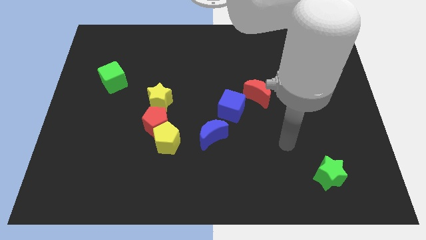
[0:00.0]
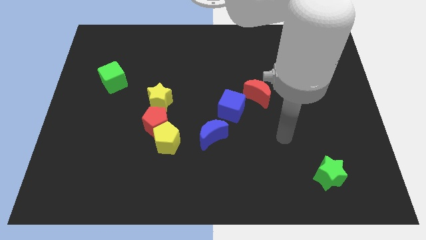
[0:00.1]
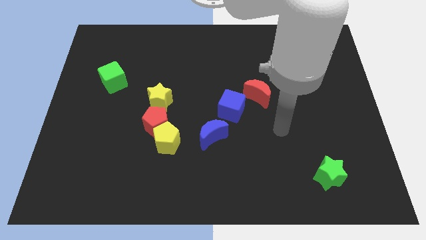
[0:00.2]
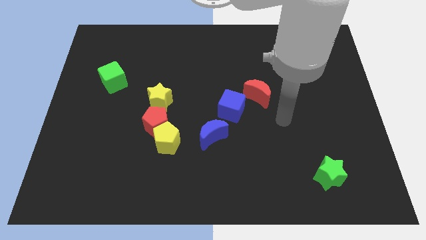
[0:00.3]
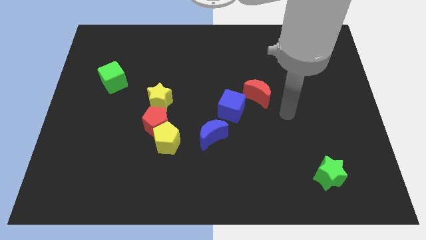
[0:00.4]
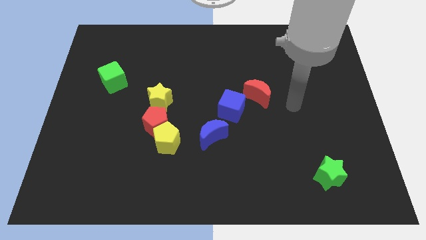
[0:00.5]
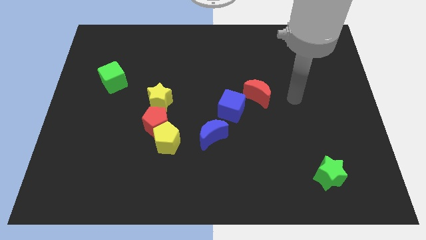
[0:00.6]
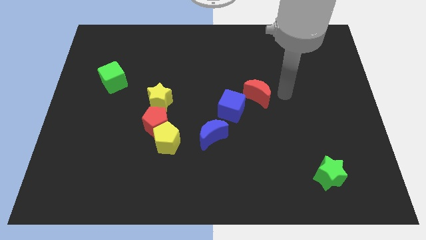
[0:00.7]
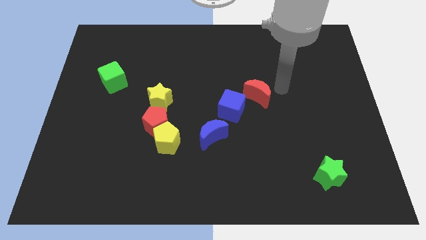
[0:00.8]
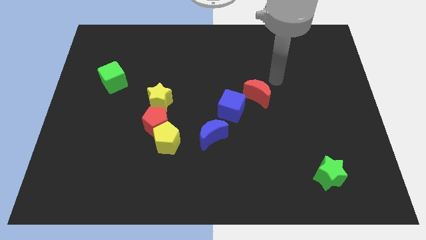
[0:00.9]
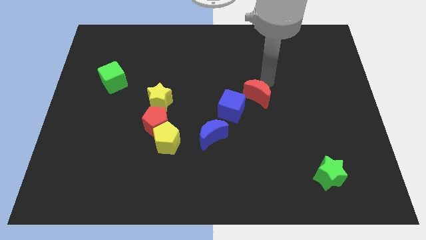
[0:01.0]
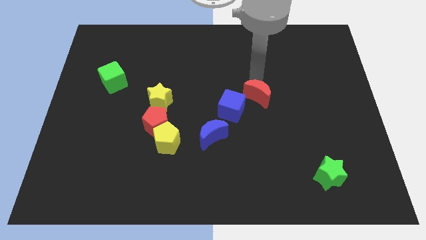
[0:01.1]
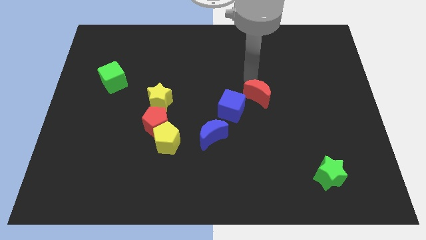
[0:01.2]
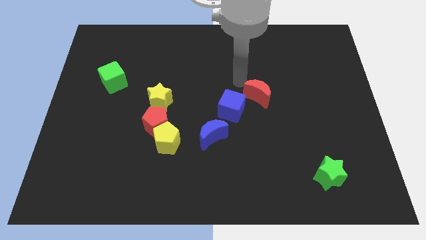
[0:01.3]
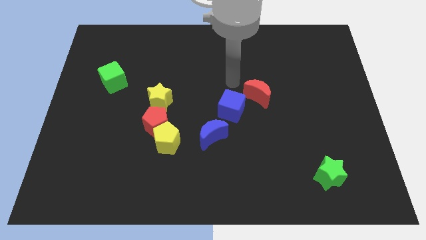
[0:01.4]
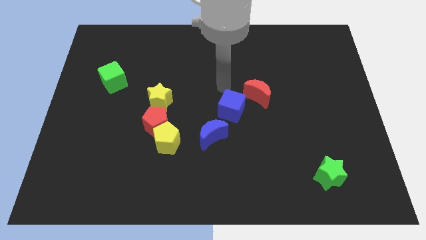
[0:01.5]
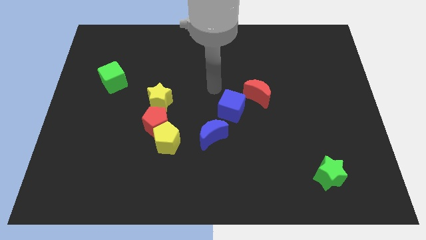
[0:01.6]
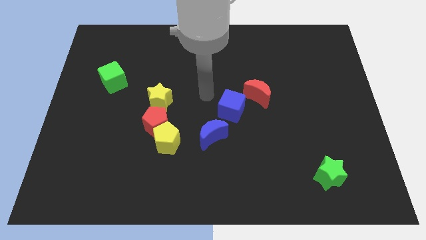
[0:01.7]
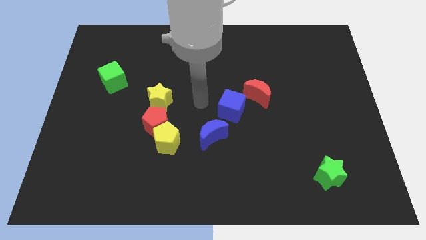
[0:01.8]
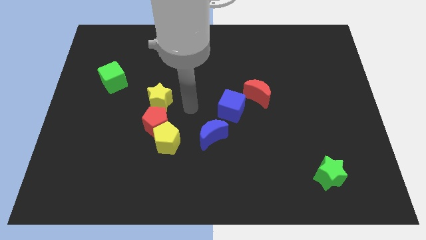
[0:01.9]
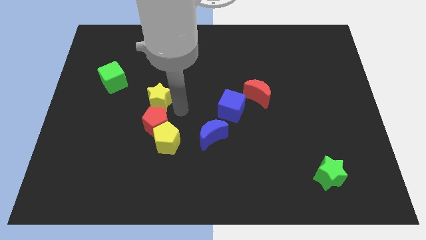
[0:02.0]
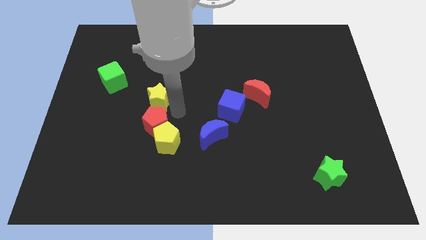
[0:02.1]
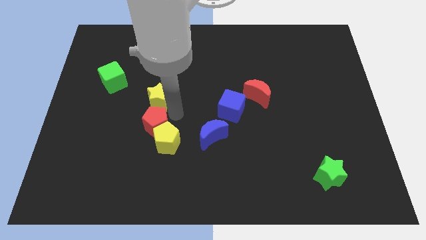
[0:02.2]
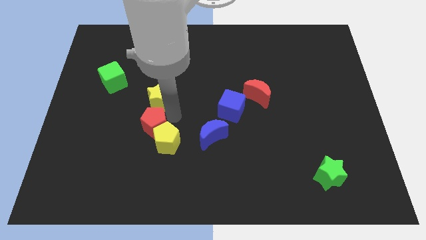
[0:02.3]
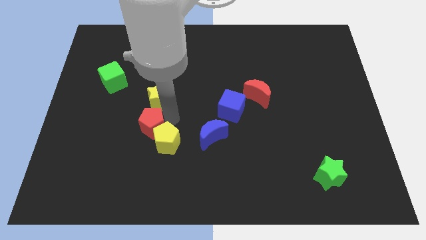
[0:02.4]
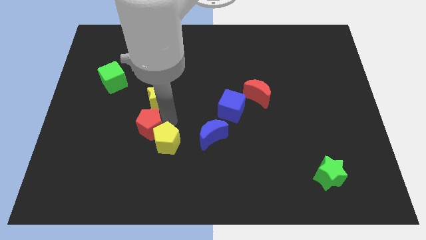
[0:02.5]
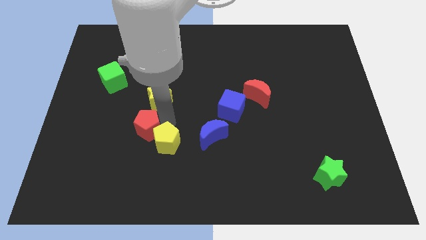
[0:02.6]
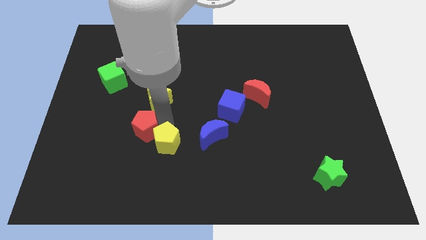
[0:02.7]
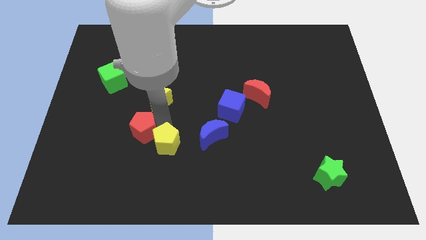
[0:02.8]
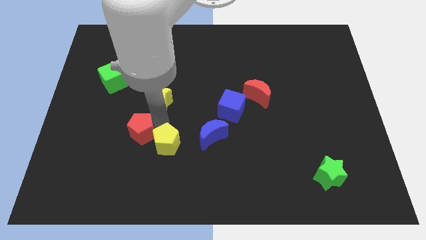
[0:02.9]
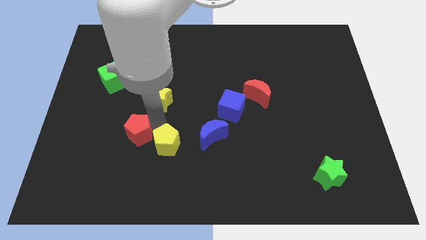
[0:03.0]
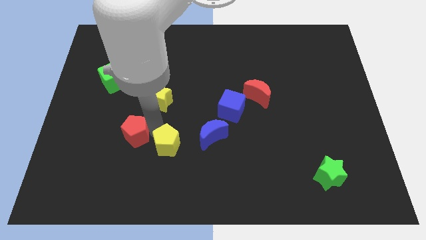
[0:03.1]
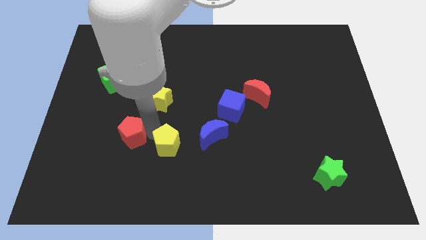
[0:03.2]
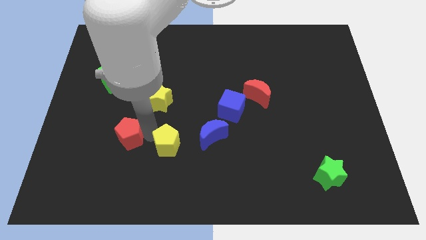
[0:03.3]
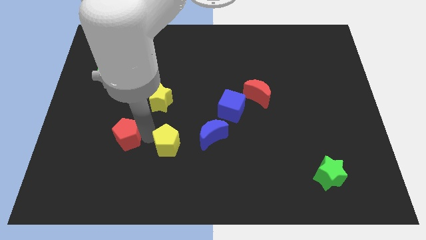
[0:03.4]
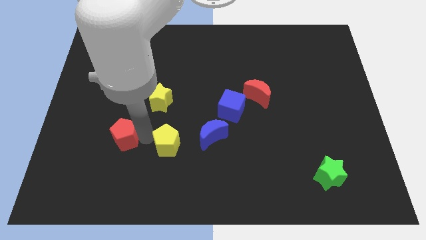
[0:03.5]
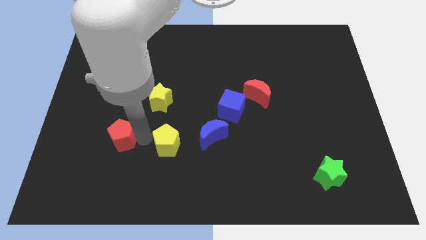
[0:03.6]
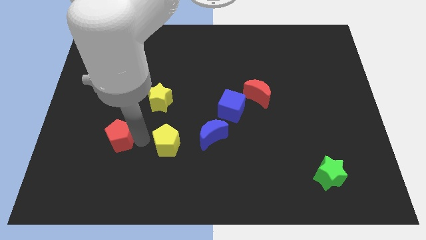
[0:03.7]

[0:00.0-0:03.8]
pull the red pentagon apart from the yellow pentagon and yellow star

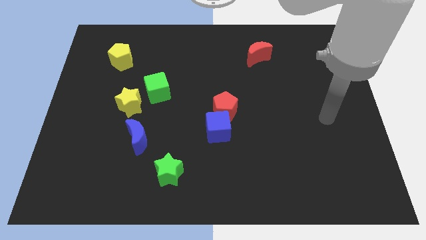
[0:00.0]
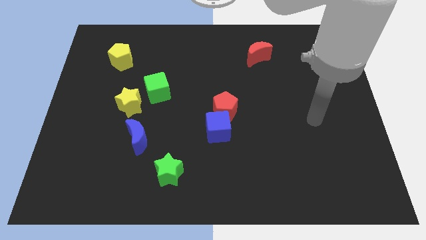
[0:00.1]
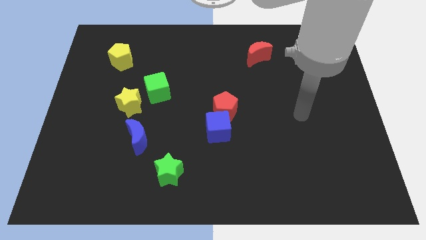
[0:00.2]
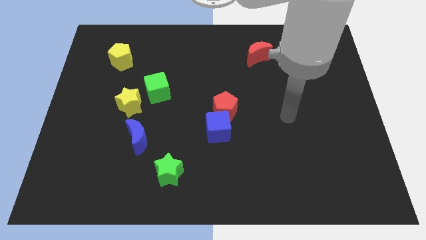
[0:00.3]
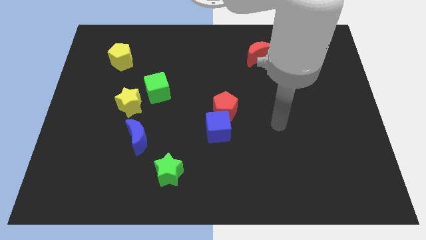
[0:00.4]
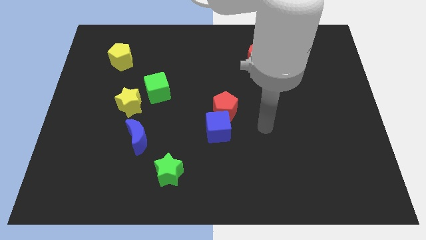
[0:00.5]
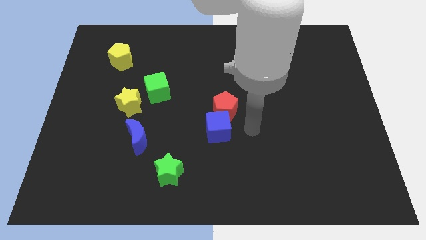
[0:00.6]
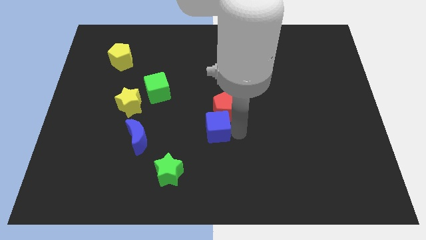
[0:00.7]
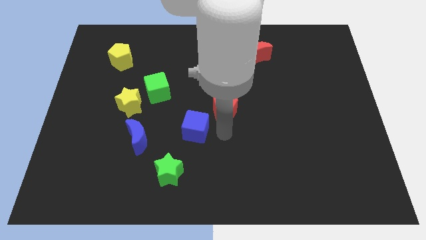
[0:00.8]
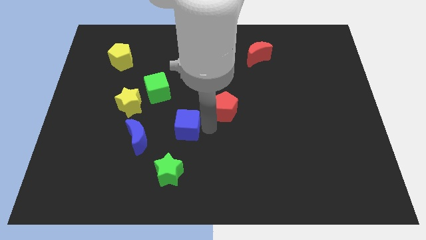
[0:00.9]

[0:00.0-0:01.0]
separate the red pentagon from the blue cube

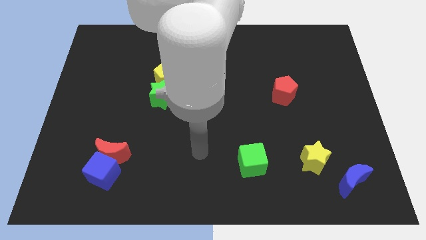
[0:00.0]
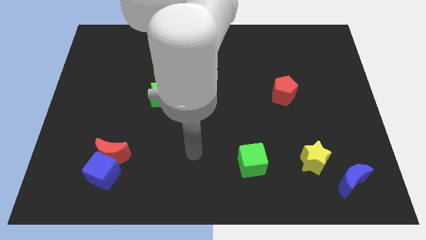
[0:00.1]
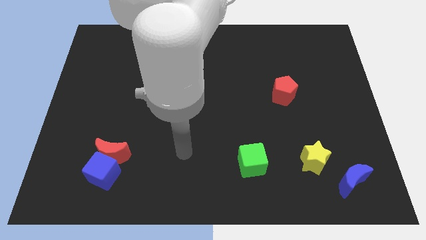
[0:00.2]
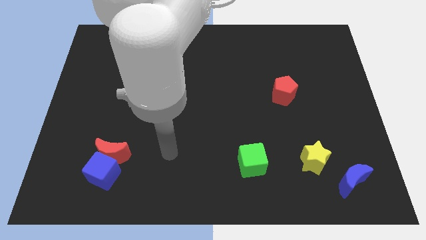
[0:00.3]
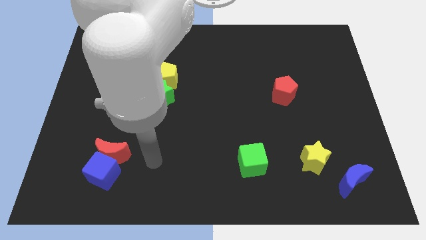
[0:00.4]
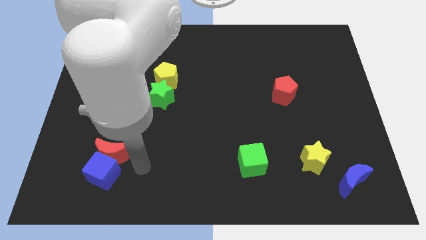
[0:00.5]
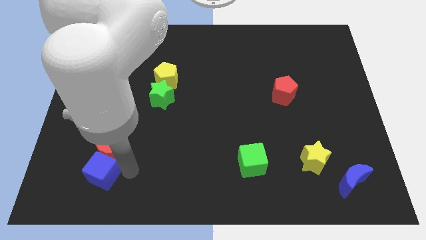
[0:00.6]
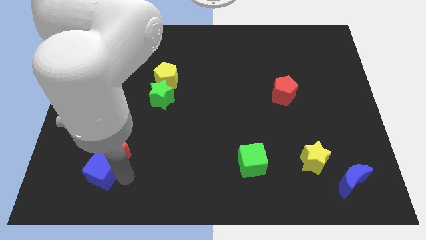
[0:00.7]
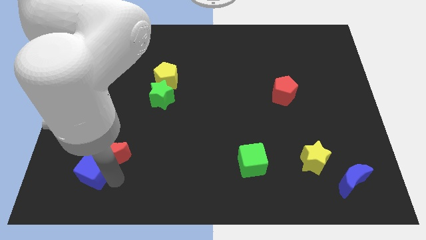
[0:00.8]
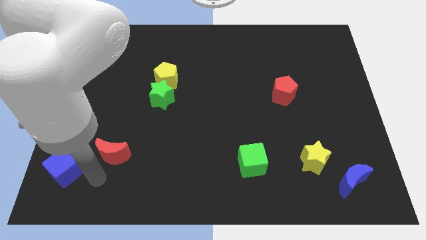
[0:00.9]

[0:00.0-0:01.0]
move the red moon away from the blue cube

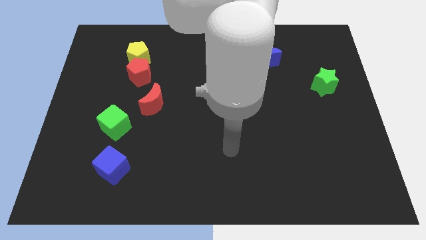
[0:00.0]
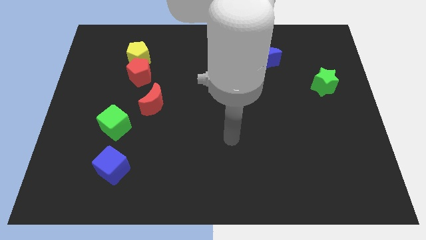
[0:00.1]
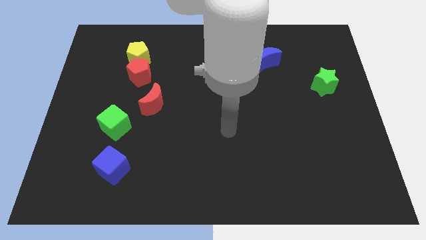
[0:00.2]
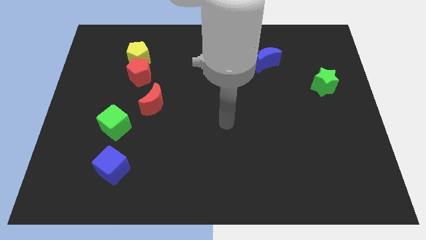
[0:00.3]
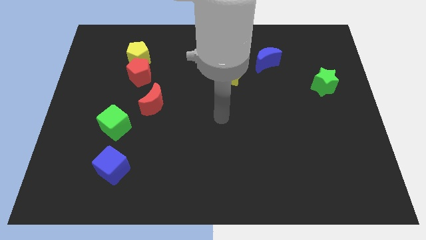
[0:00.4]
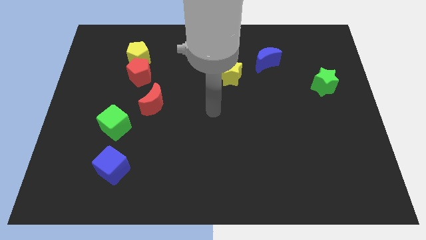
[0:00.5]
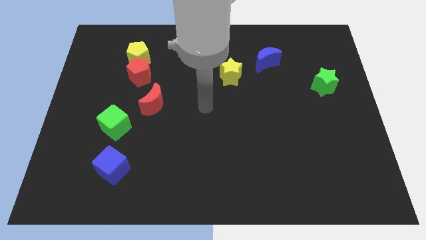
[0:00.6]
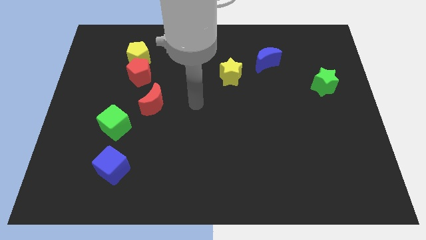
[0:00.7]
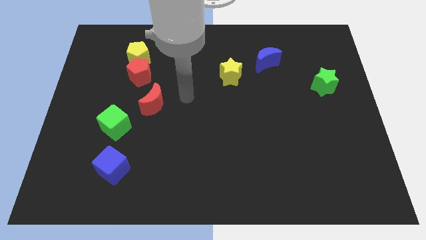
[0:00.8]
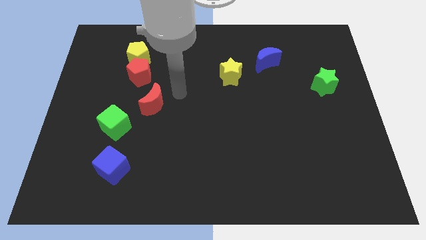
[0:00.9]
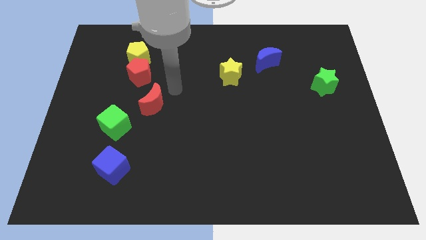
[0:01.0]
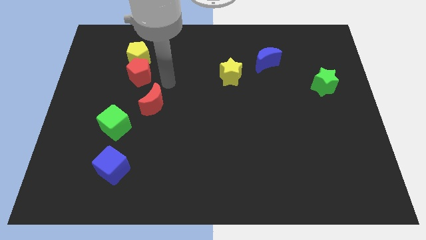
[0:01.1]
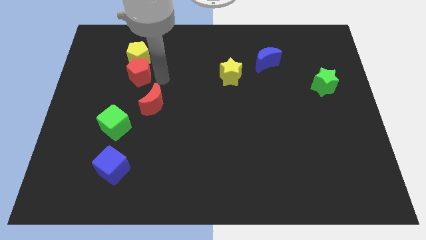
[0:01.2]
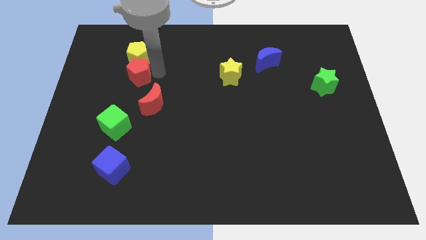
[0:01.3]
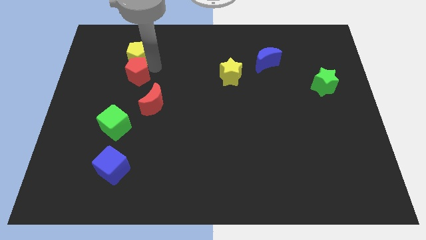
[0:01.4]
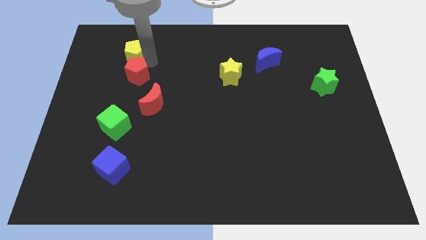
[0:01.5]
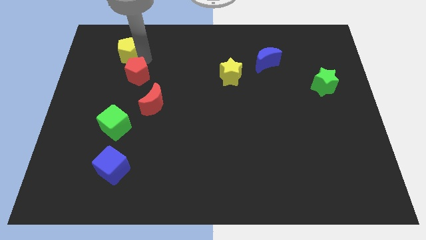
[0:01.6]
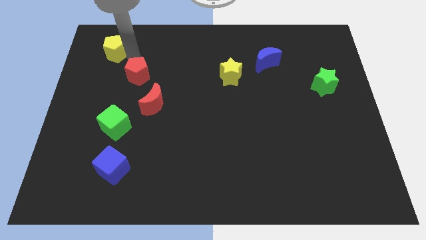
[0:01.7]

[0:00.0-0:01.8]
pull the red pentagon apart from the yellow pentagon

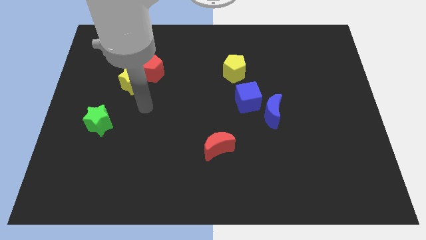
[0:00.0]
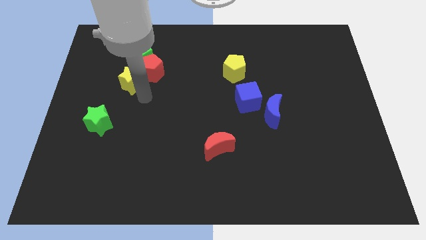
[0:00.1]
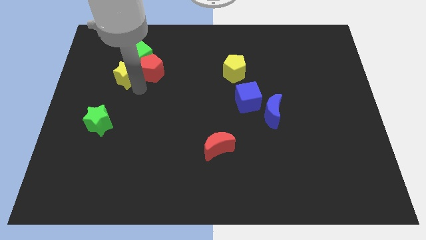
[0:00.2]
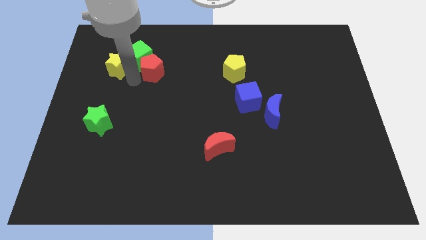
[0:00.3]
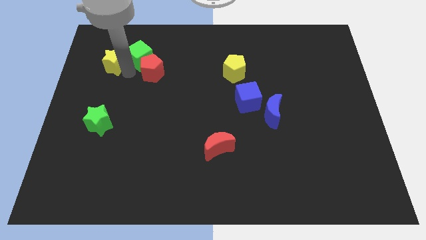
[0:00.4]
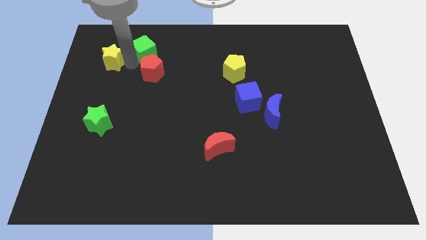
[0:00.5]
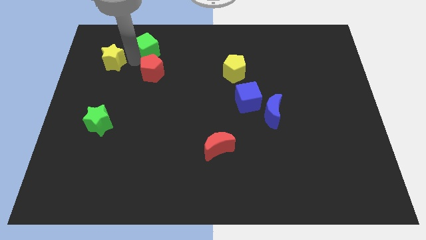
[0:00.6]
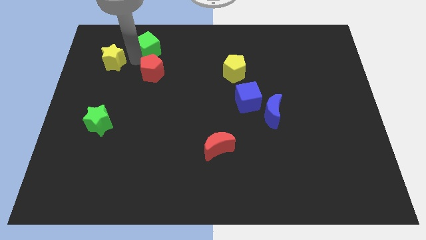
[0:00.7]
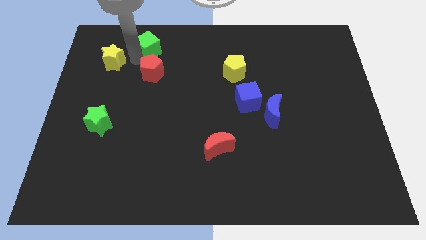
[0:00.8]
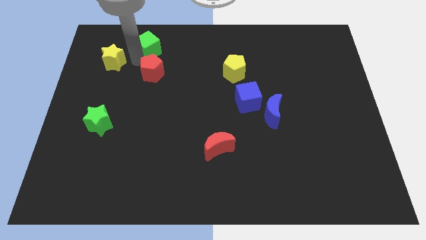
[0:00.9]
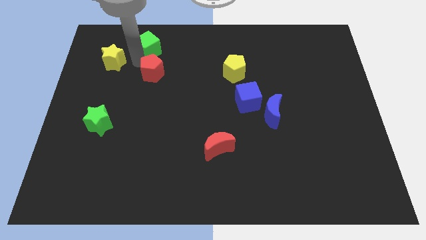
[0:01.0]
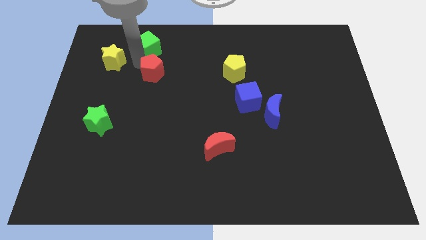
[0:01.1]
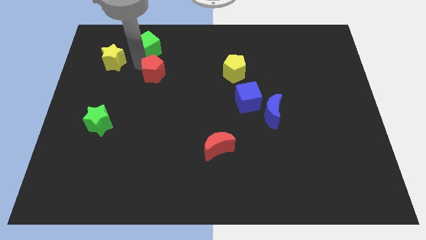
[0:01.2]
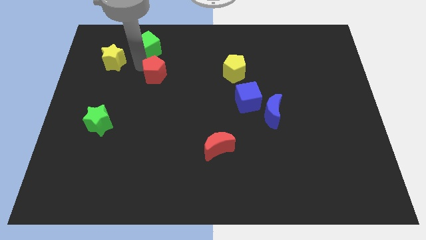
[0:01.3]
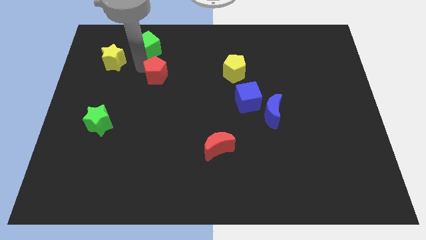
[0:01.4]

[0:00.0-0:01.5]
pull the red pentagon apart from the green cube and yellow star

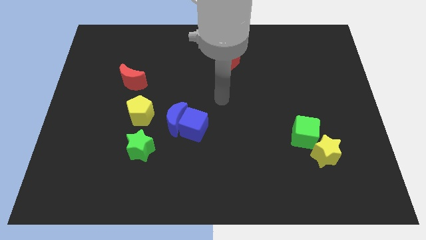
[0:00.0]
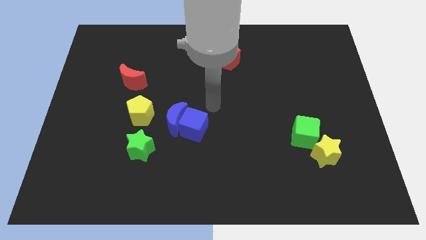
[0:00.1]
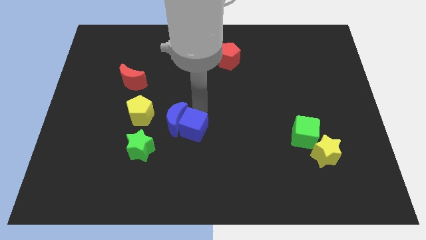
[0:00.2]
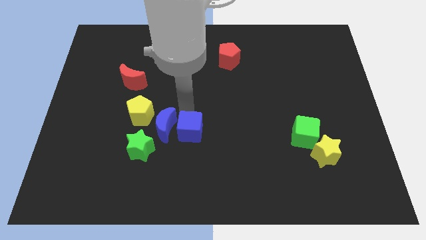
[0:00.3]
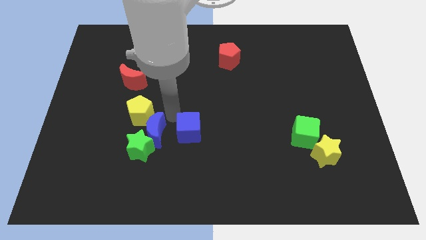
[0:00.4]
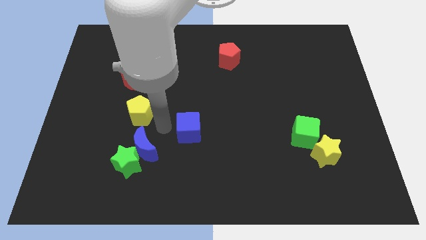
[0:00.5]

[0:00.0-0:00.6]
separate the blue cube from the blue moon
